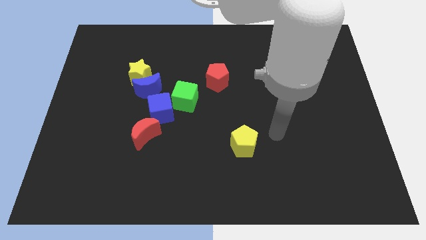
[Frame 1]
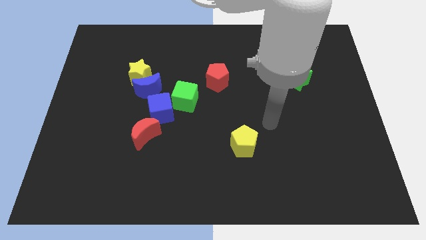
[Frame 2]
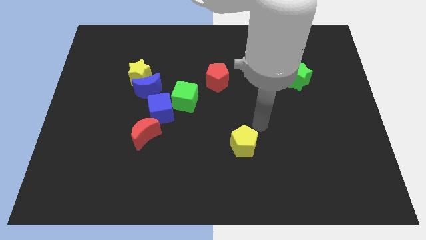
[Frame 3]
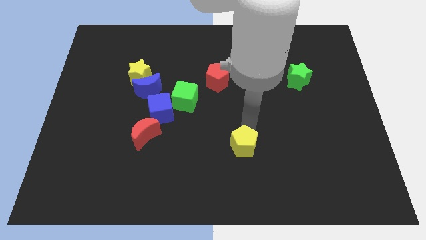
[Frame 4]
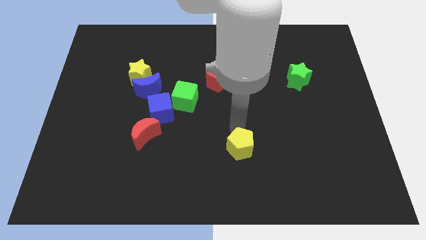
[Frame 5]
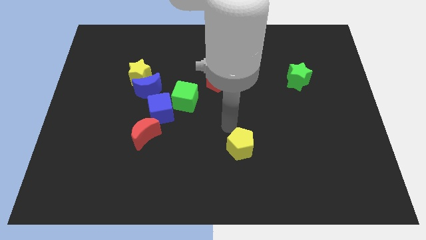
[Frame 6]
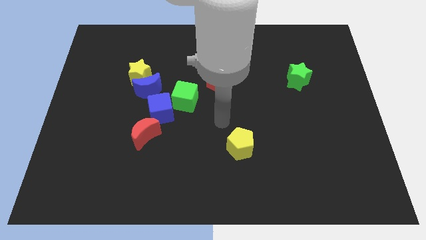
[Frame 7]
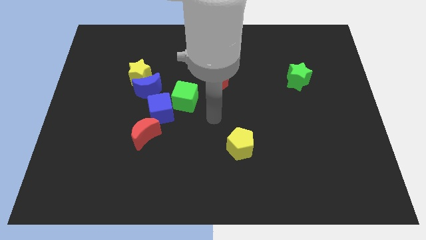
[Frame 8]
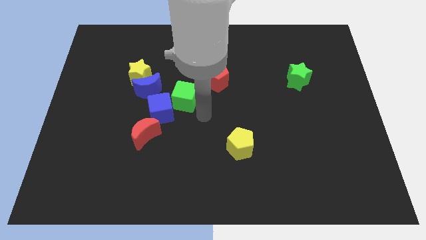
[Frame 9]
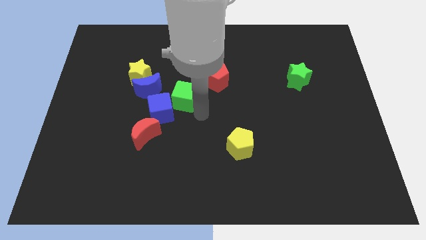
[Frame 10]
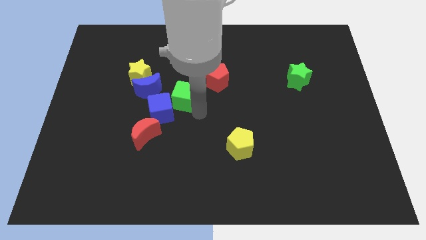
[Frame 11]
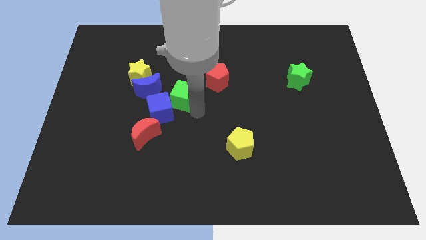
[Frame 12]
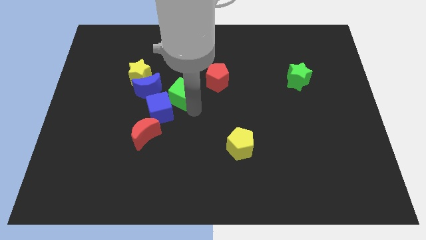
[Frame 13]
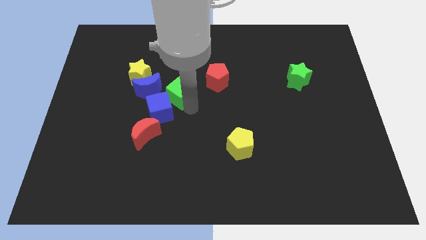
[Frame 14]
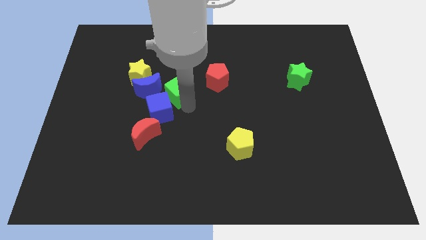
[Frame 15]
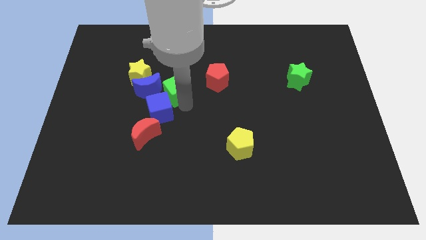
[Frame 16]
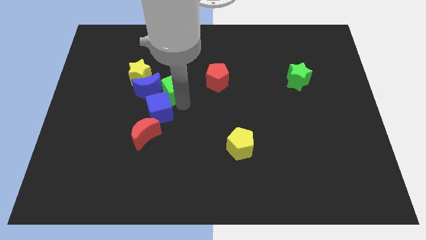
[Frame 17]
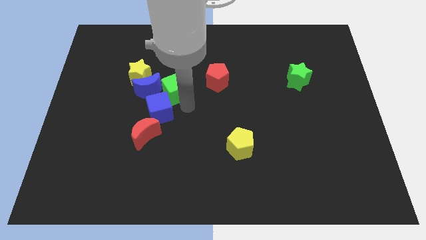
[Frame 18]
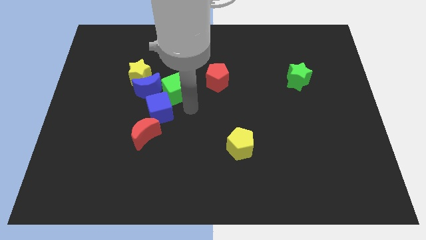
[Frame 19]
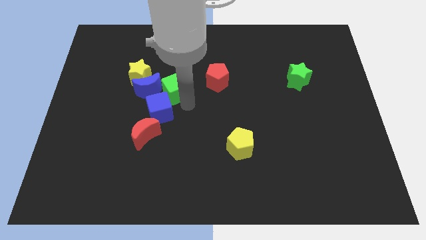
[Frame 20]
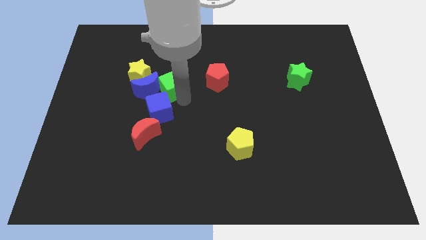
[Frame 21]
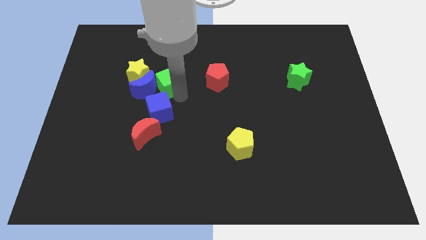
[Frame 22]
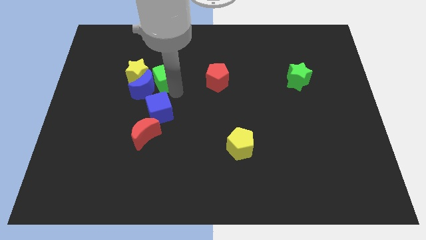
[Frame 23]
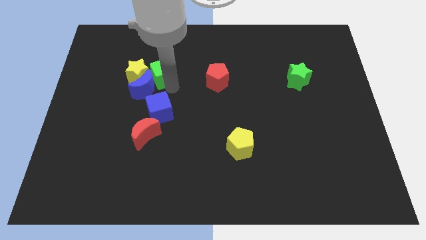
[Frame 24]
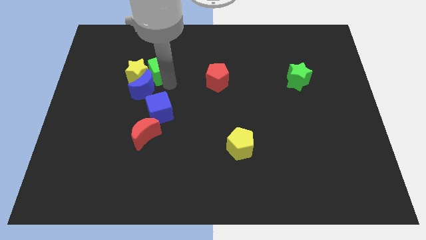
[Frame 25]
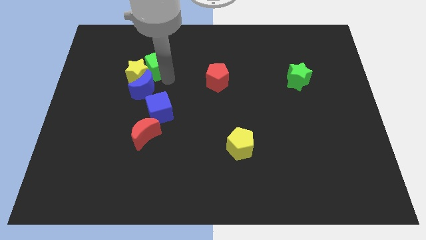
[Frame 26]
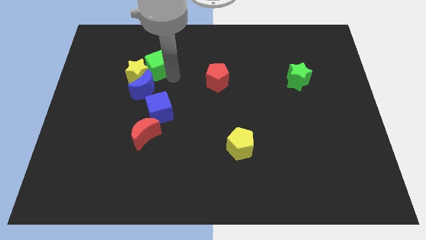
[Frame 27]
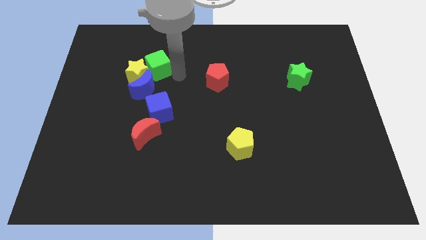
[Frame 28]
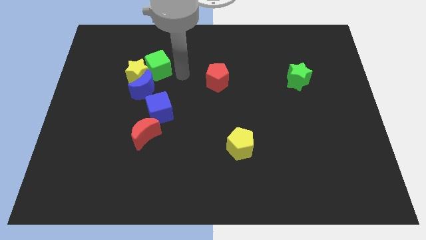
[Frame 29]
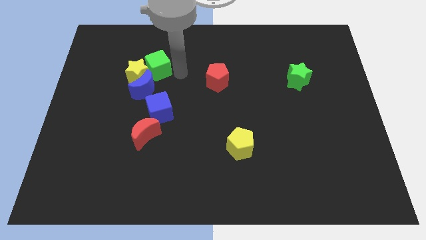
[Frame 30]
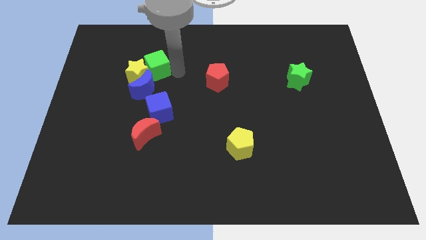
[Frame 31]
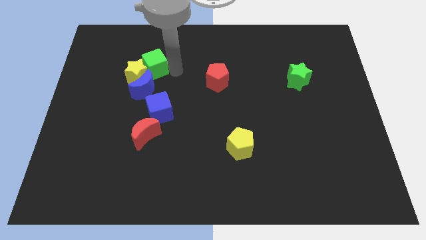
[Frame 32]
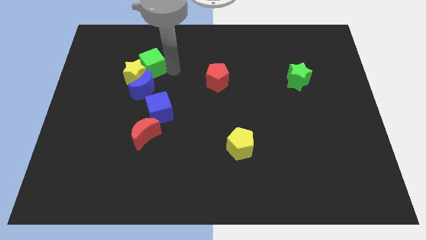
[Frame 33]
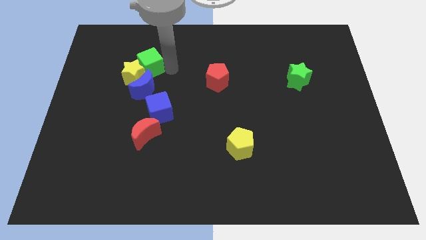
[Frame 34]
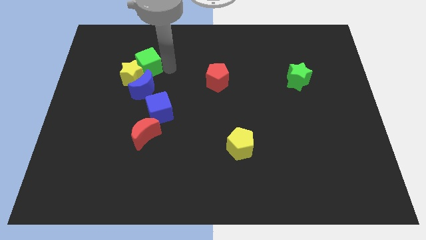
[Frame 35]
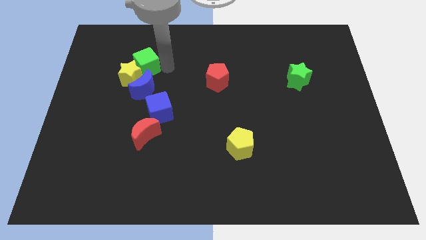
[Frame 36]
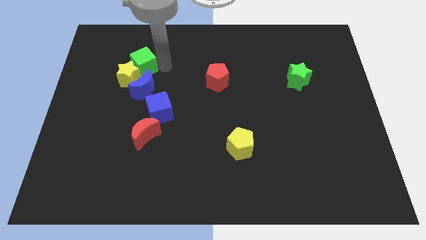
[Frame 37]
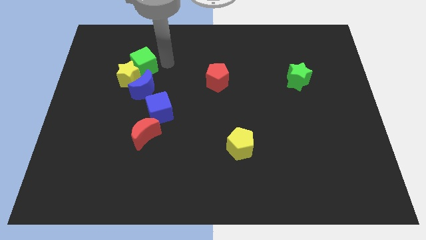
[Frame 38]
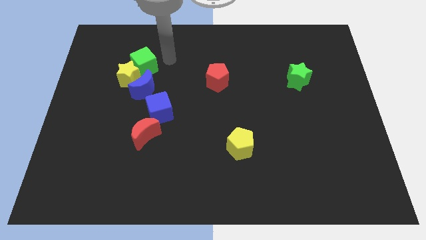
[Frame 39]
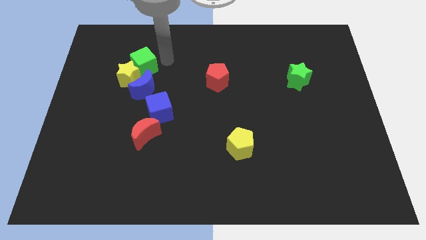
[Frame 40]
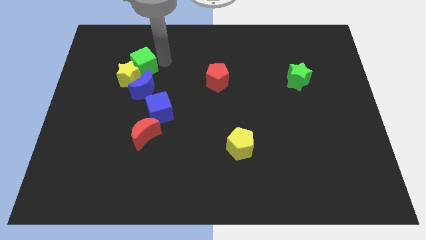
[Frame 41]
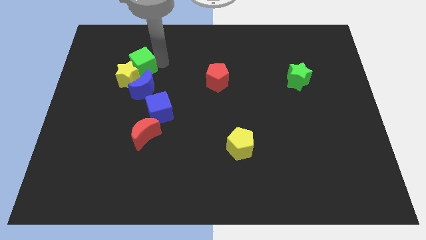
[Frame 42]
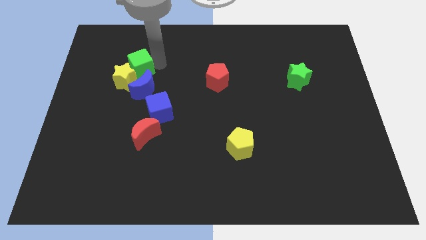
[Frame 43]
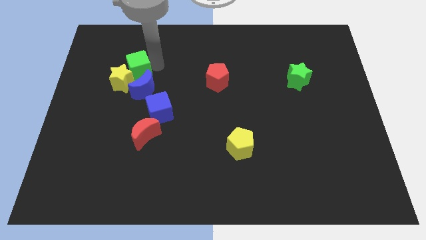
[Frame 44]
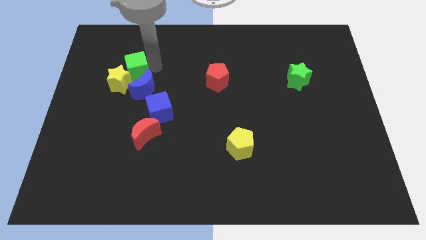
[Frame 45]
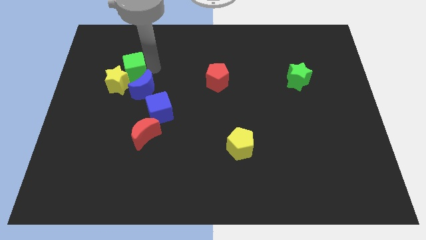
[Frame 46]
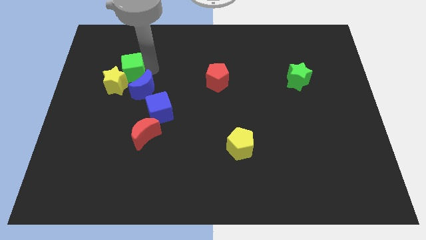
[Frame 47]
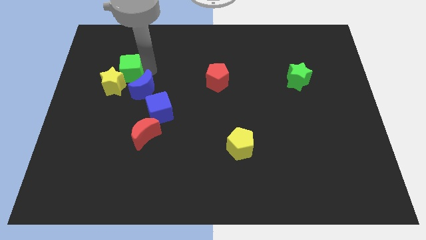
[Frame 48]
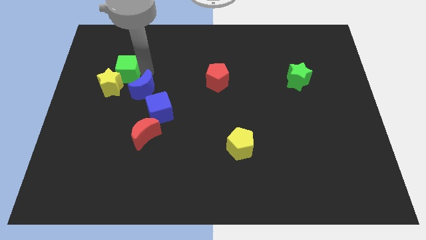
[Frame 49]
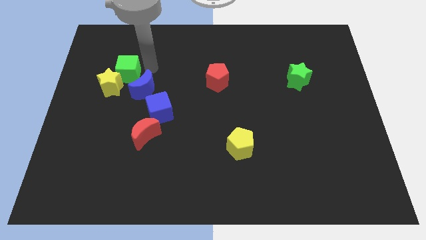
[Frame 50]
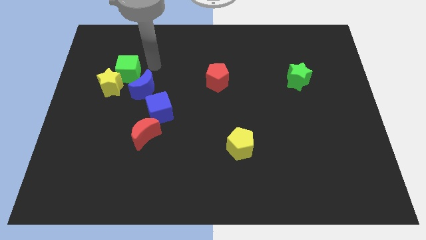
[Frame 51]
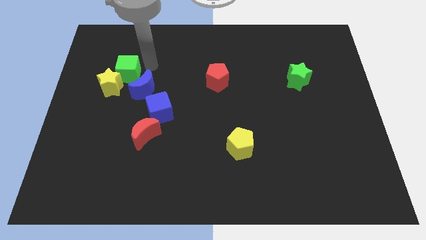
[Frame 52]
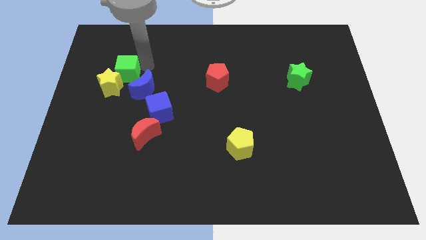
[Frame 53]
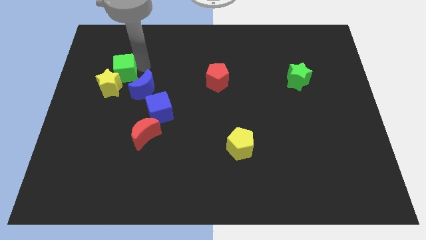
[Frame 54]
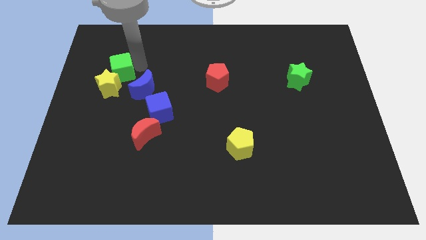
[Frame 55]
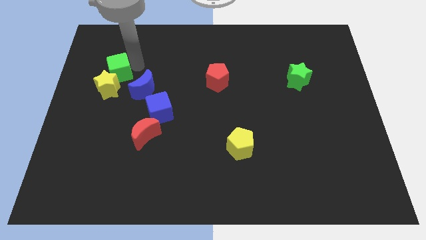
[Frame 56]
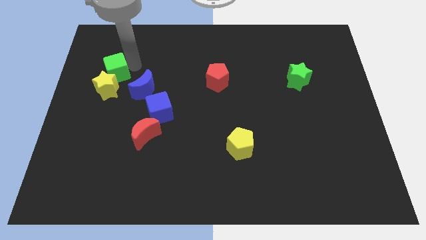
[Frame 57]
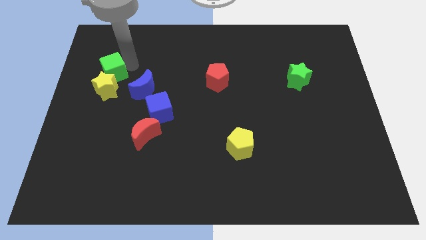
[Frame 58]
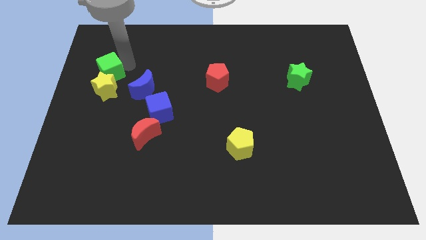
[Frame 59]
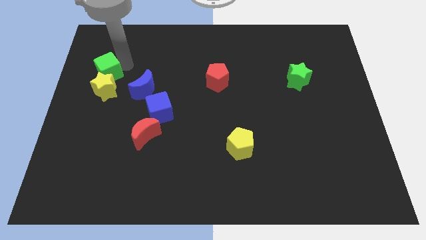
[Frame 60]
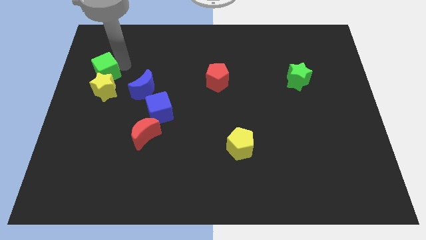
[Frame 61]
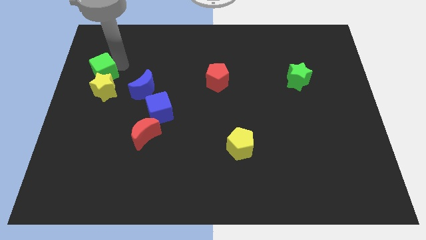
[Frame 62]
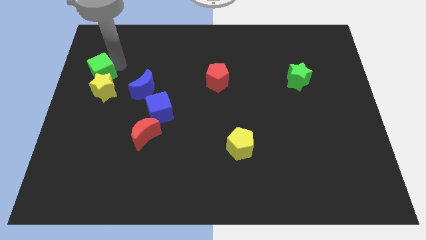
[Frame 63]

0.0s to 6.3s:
put the green cube to the left side of the board
